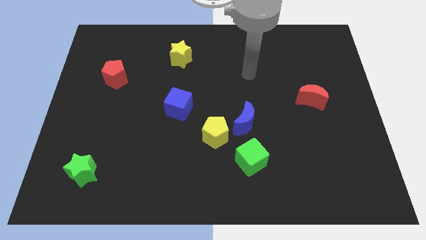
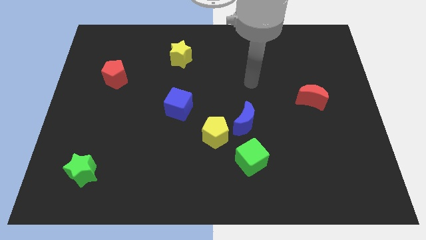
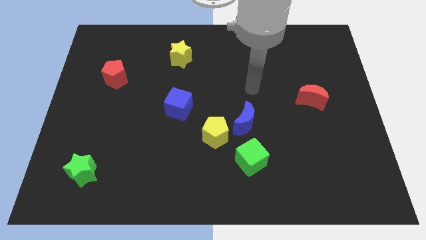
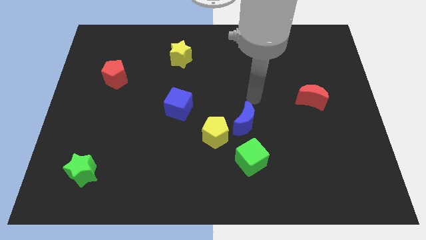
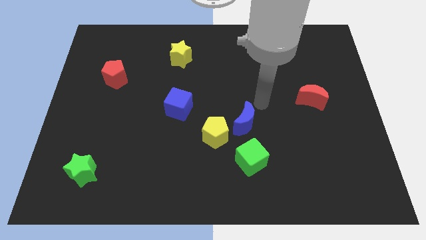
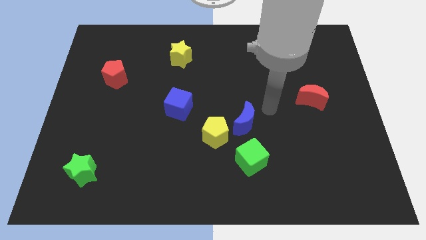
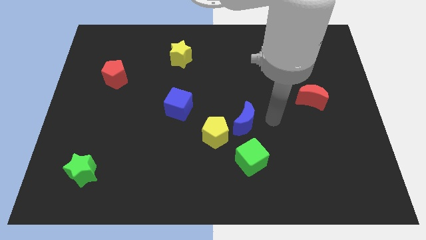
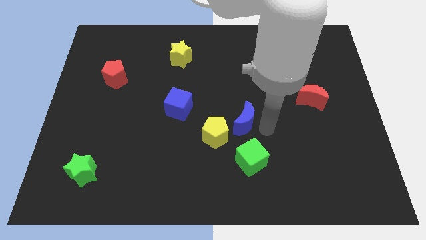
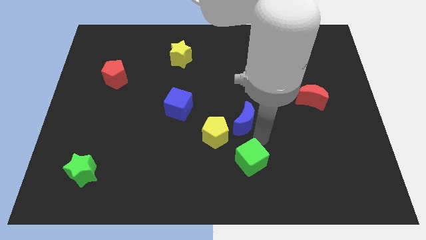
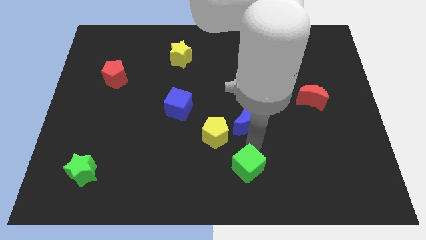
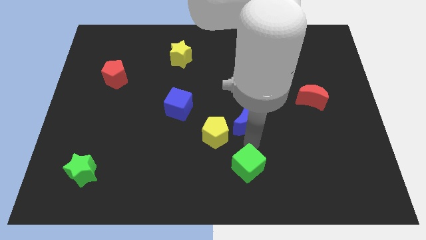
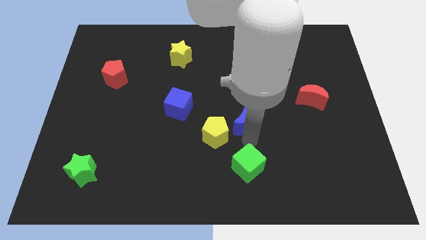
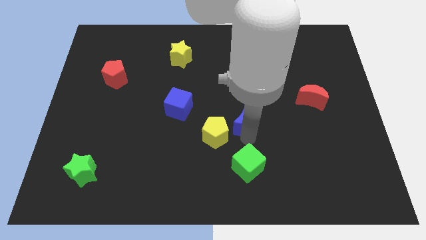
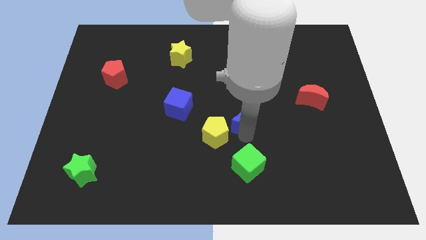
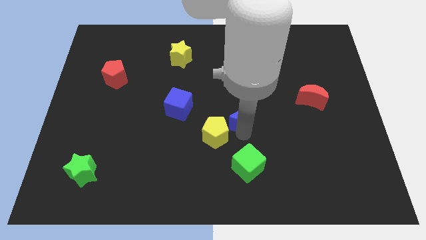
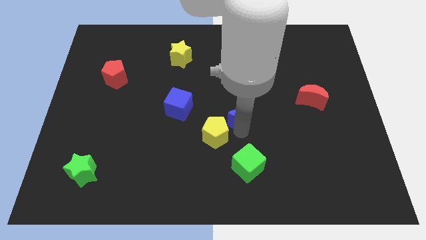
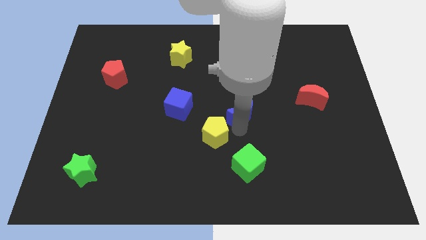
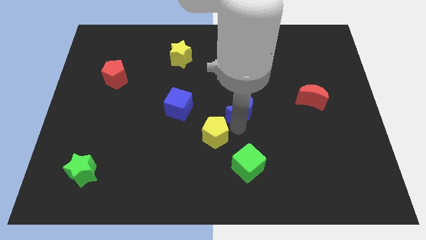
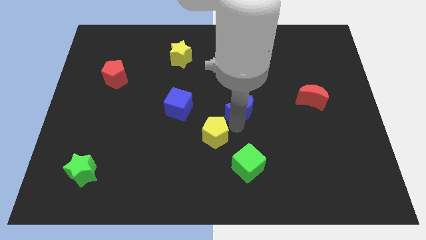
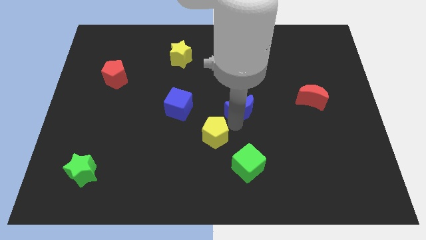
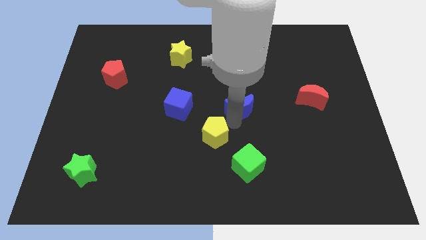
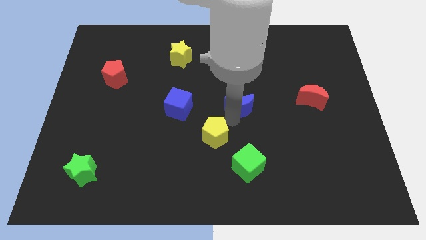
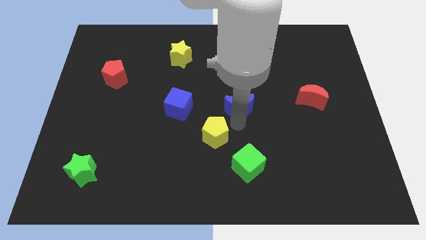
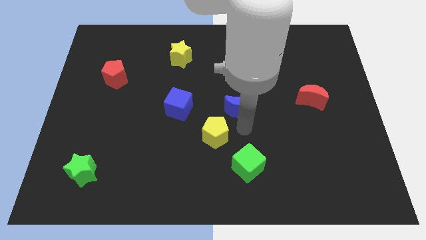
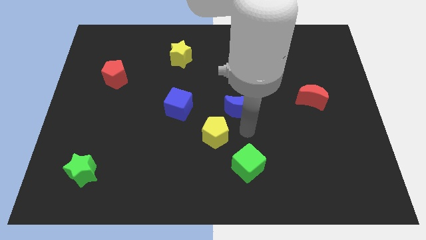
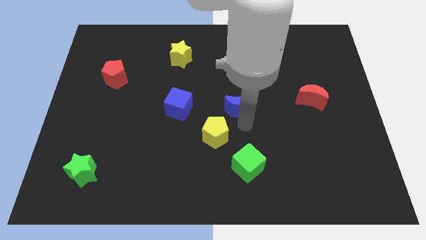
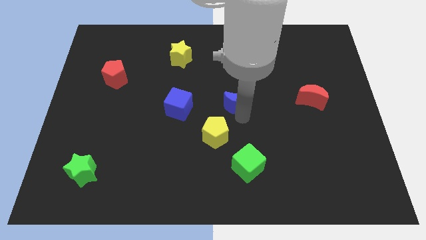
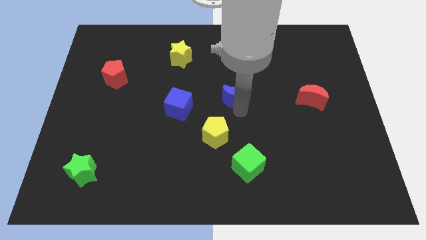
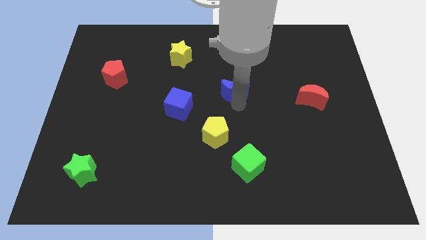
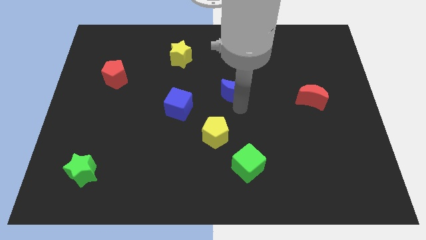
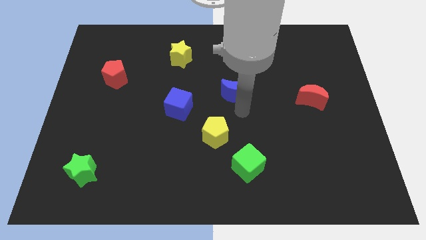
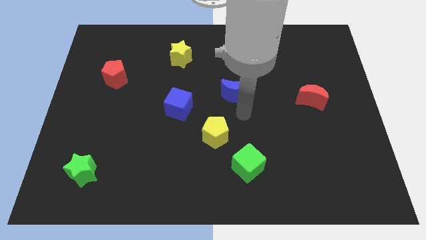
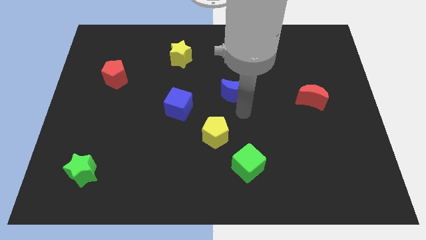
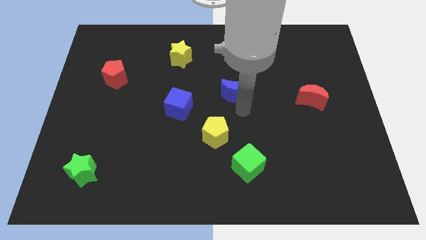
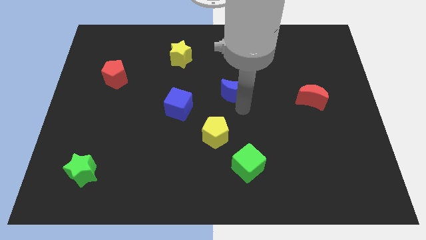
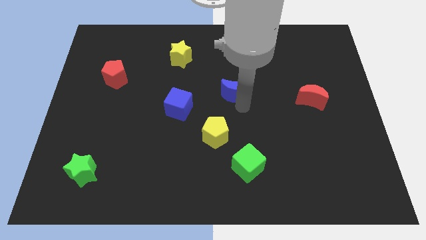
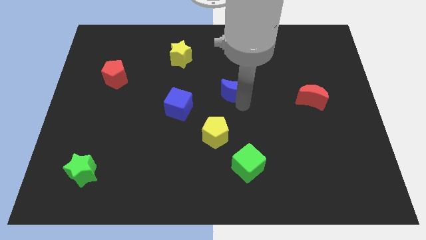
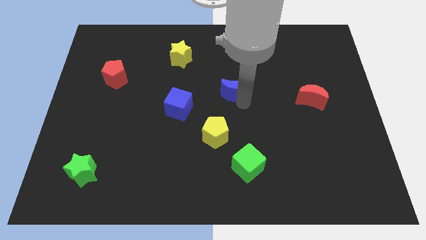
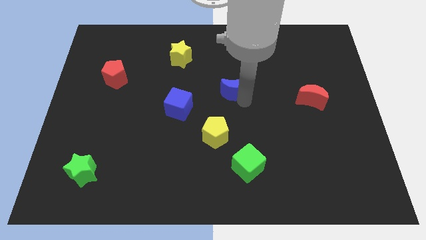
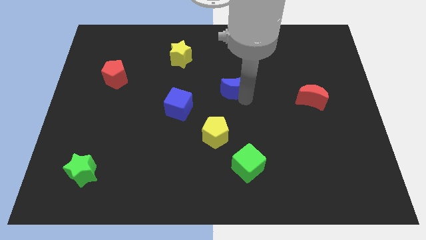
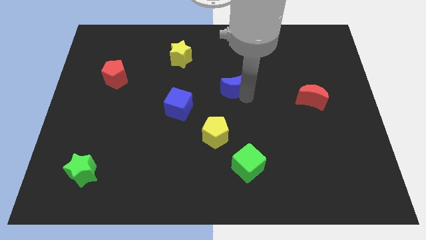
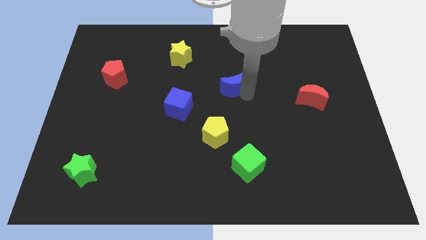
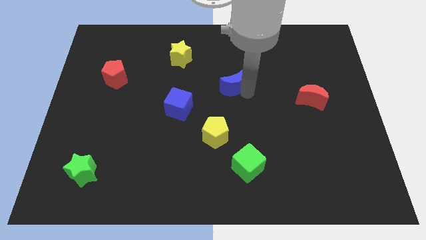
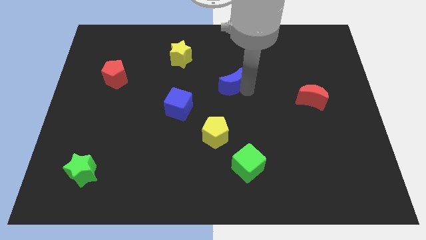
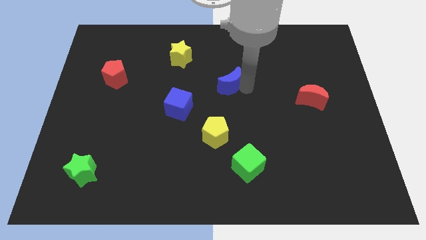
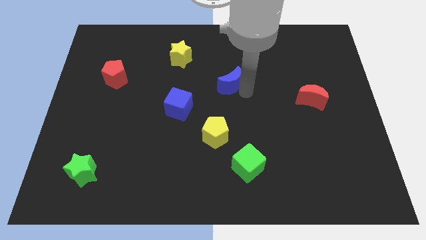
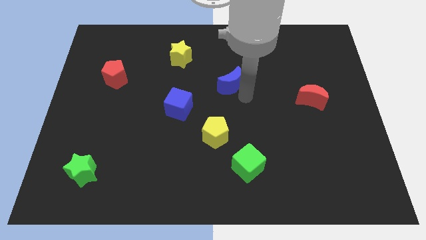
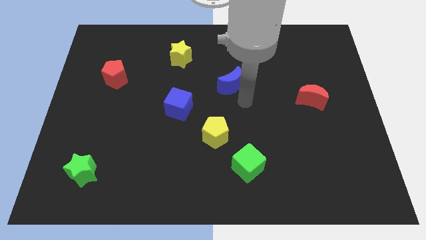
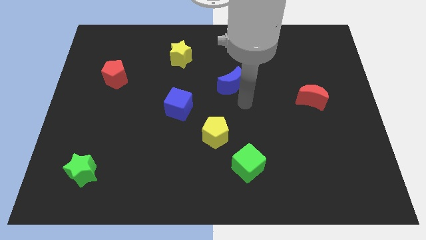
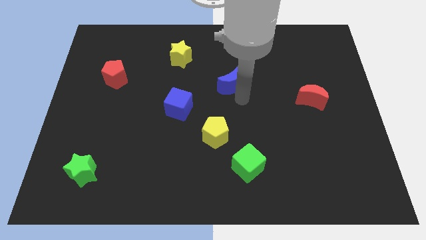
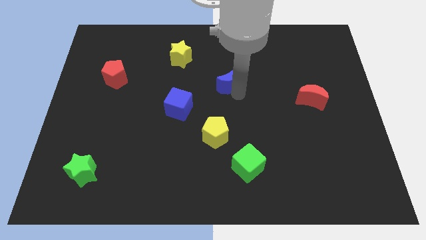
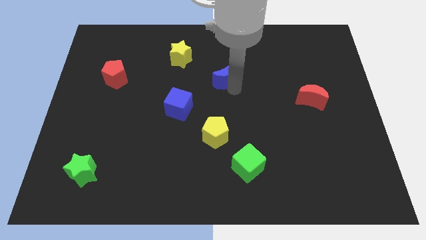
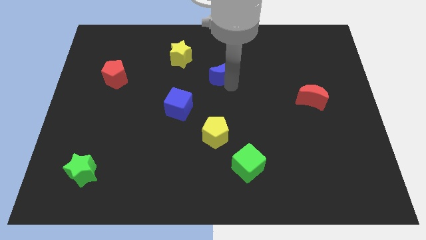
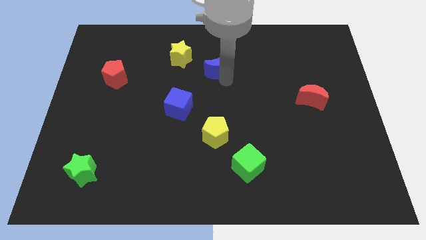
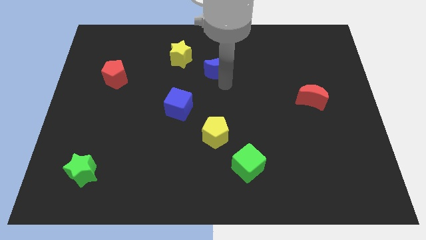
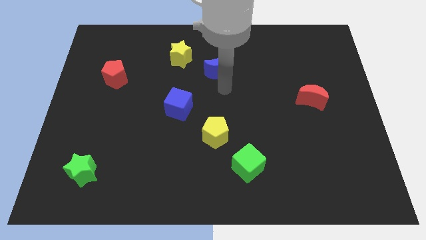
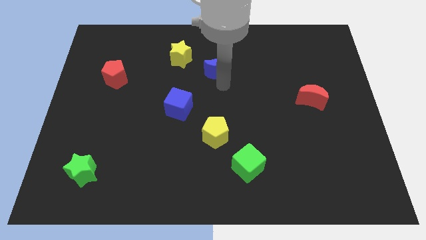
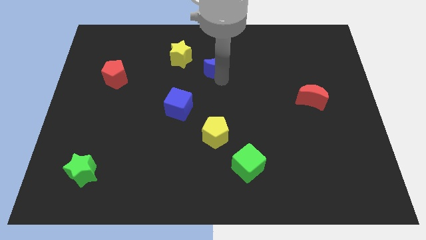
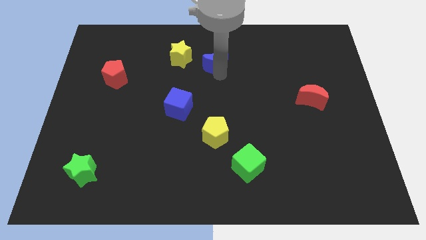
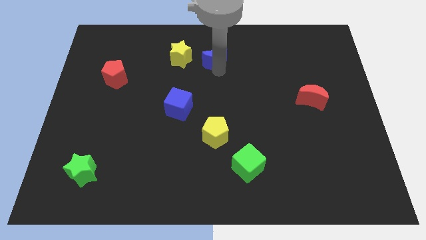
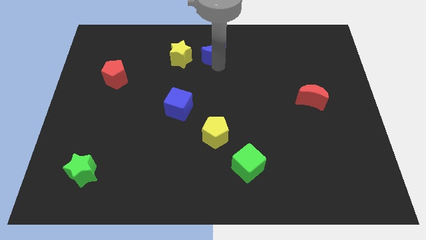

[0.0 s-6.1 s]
put the blue moon to the towards your base

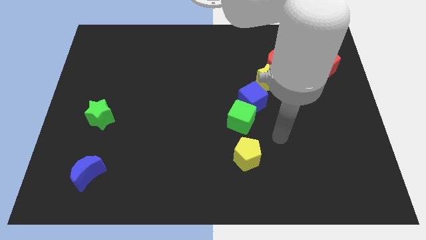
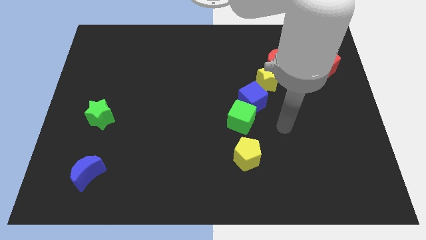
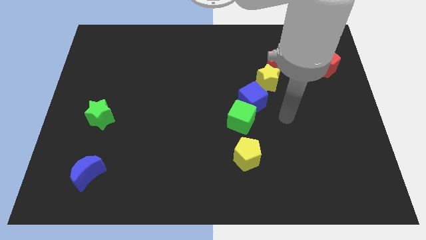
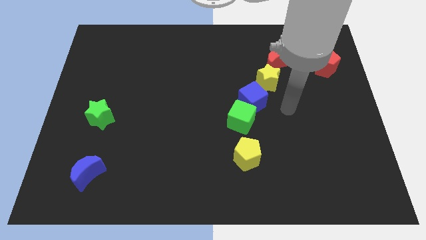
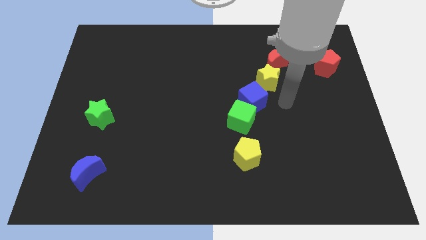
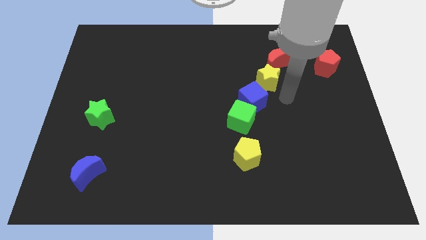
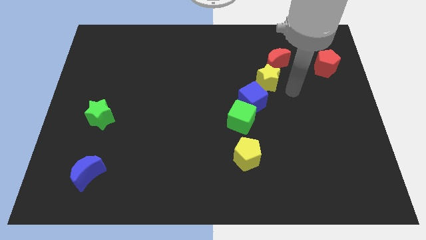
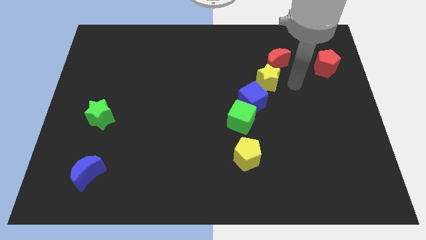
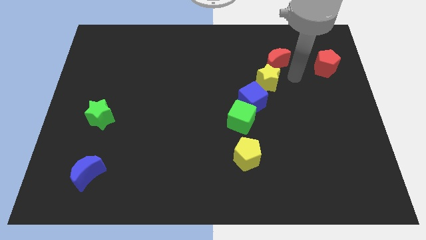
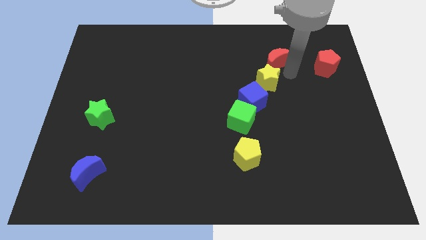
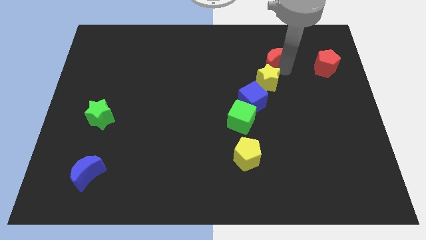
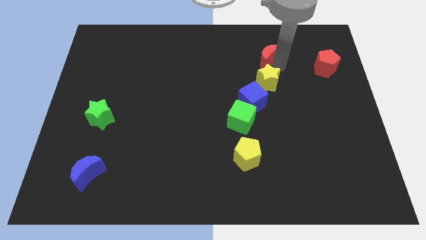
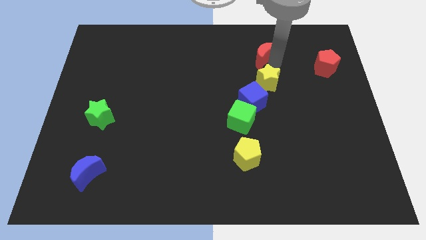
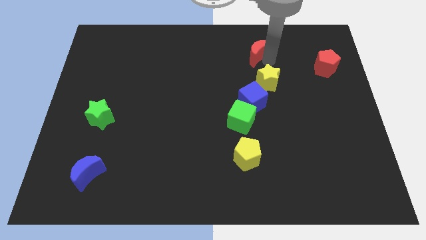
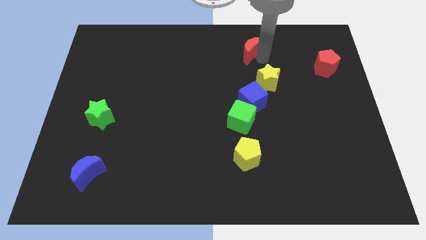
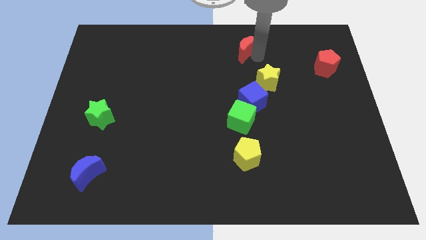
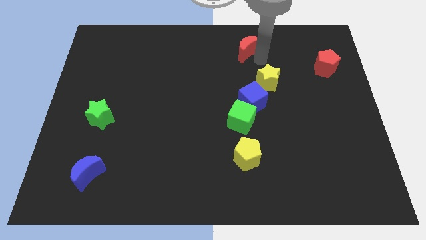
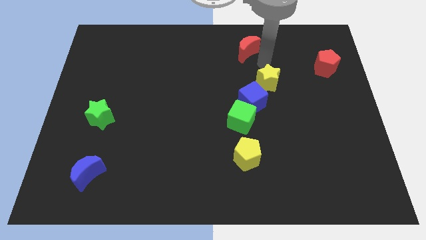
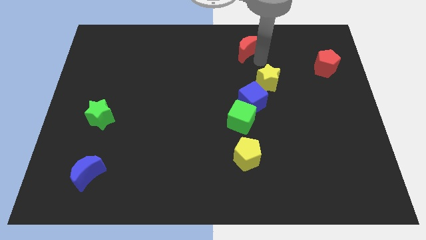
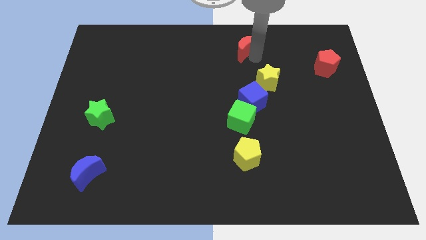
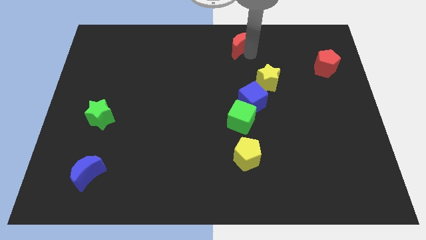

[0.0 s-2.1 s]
push the red moon to the towards your base

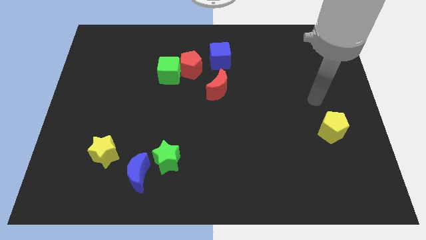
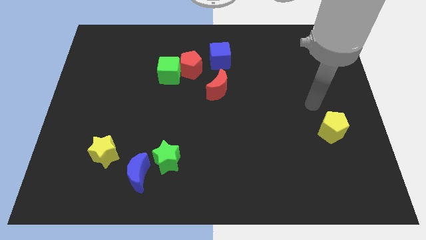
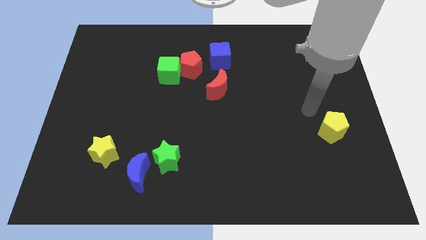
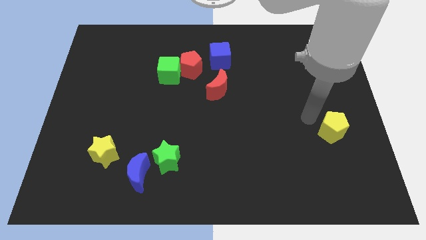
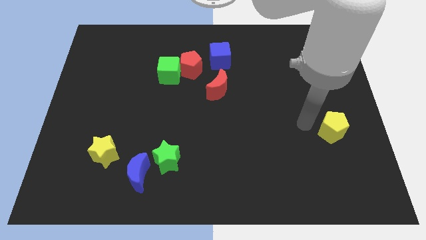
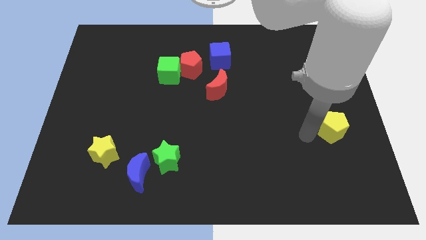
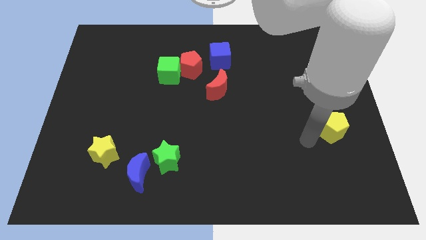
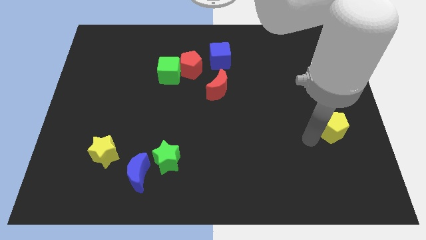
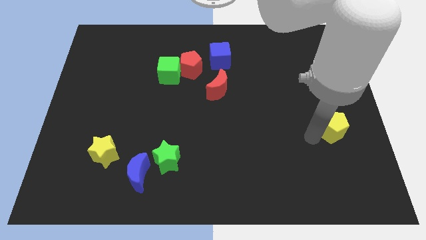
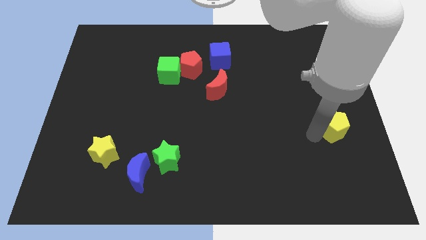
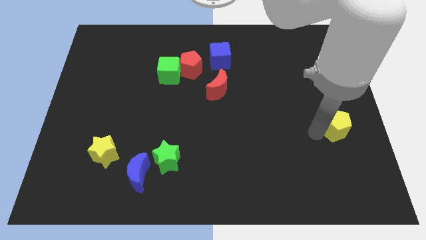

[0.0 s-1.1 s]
slide the yellow pentagon to the right side of the board
